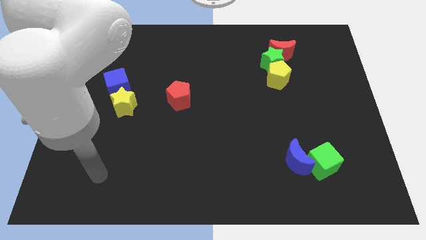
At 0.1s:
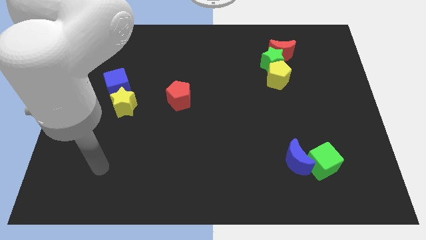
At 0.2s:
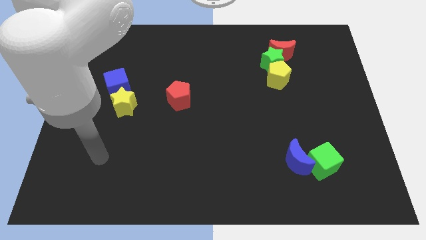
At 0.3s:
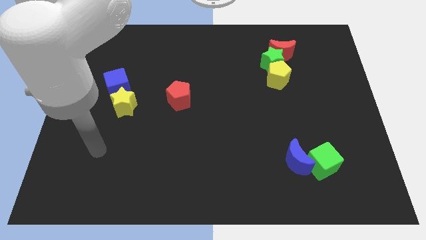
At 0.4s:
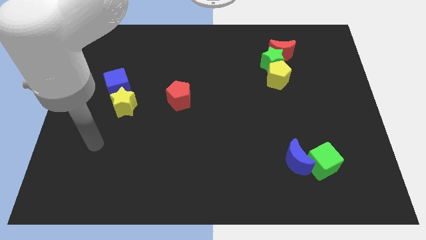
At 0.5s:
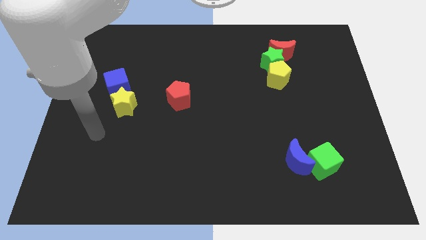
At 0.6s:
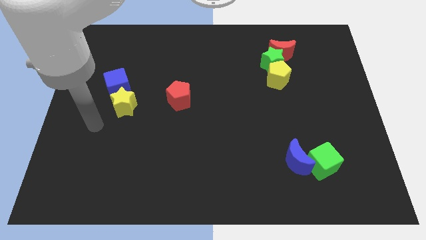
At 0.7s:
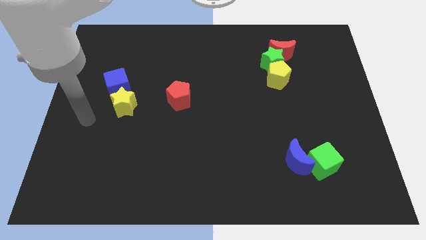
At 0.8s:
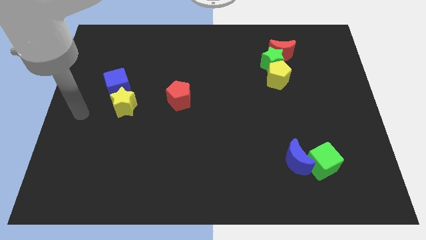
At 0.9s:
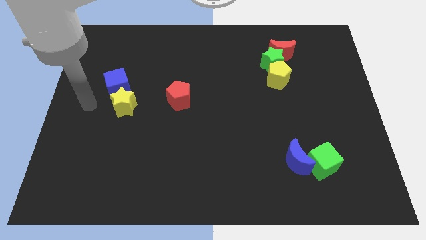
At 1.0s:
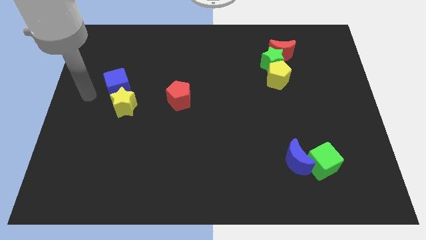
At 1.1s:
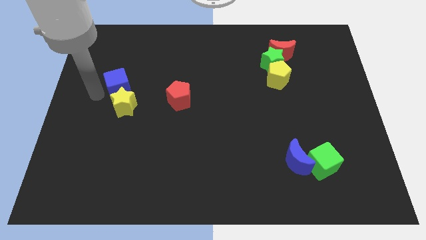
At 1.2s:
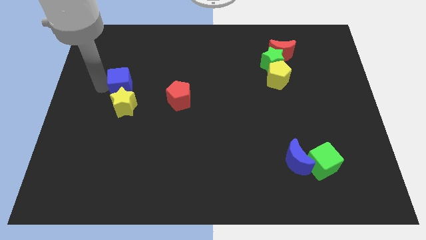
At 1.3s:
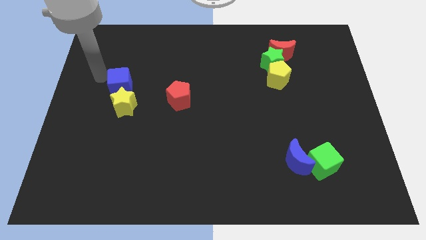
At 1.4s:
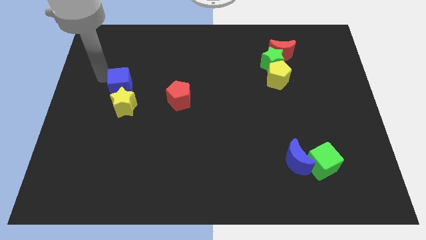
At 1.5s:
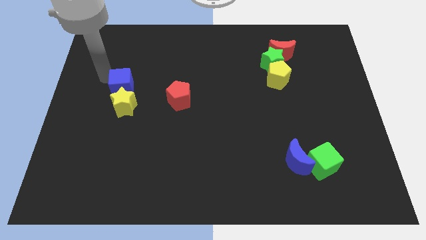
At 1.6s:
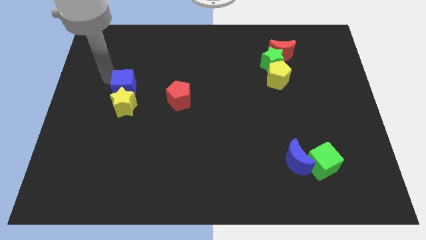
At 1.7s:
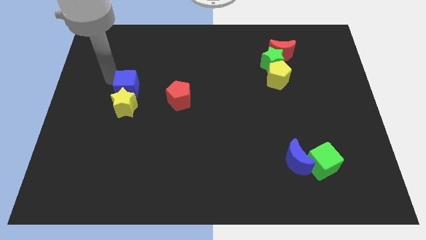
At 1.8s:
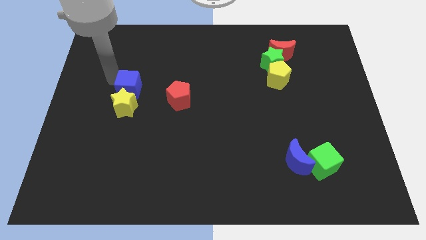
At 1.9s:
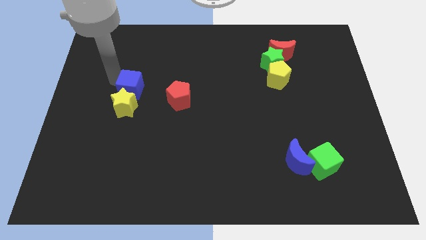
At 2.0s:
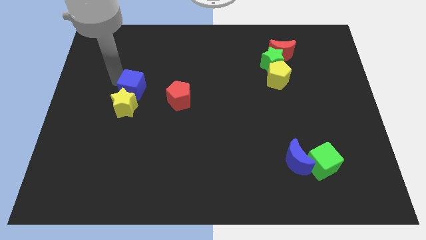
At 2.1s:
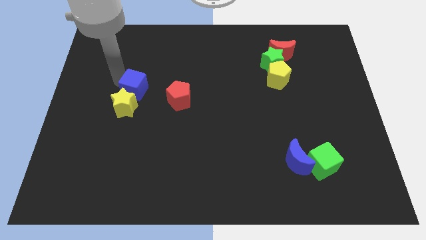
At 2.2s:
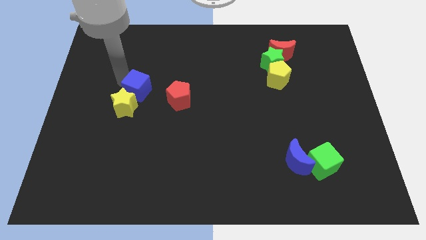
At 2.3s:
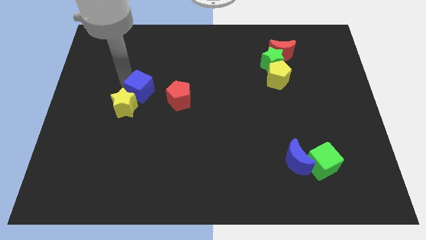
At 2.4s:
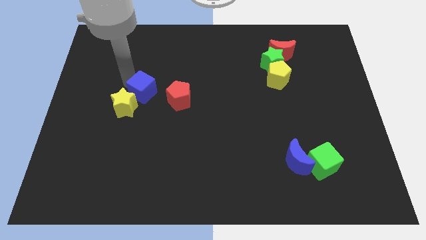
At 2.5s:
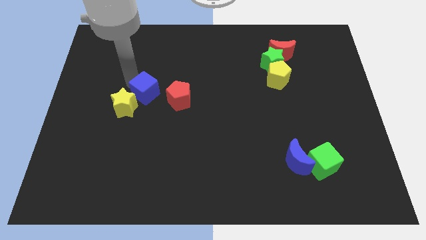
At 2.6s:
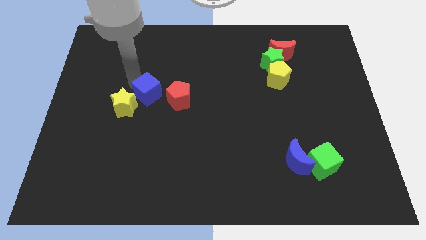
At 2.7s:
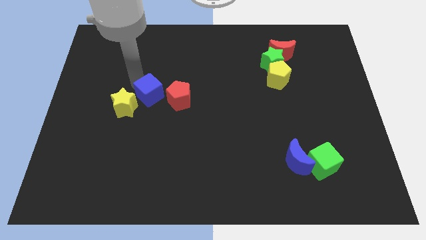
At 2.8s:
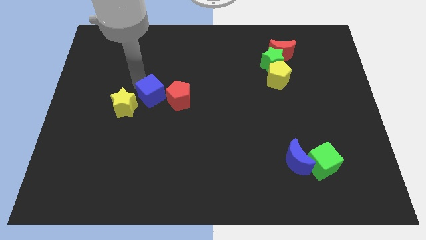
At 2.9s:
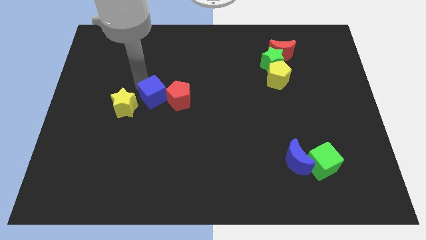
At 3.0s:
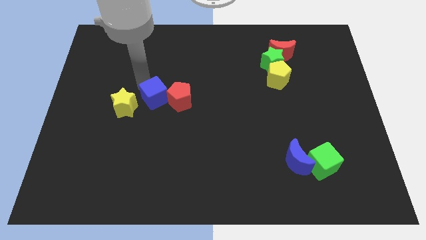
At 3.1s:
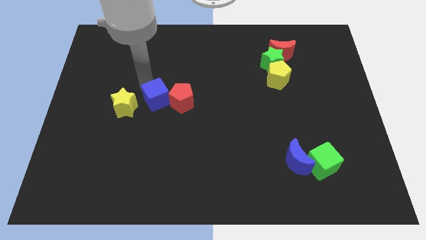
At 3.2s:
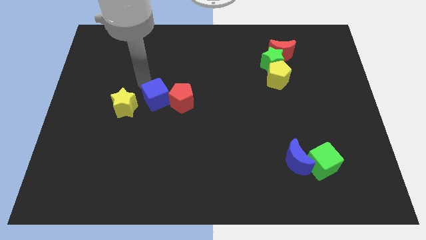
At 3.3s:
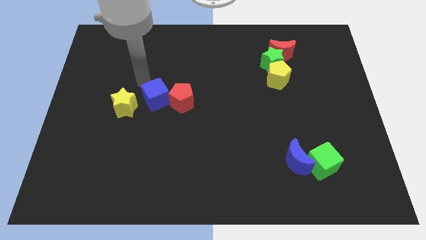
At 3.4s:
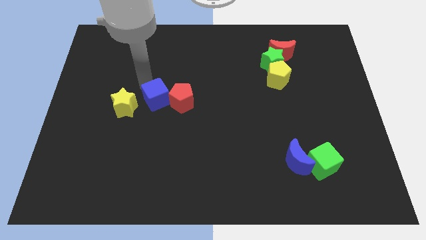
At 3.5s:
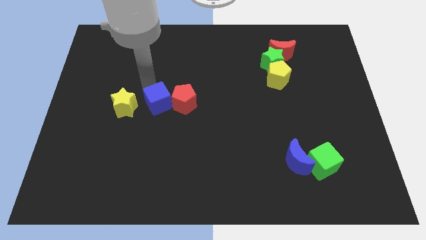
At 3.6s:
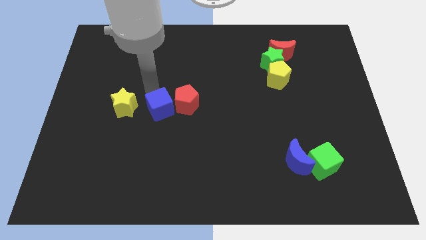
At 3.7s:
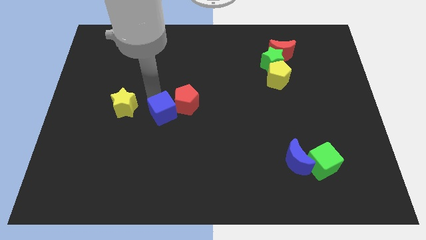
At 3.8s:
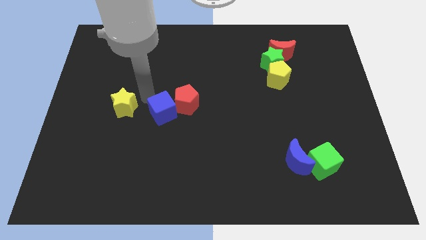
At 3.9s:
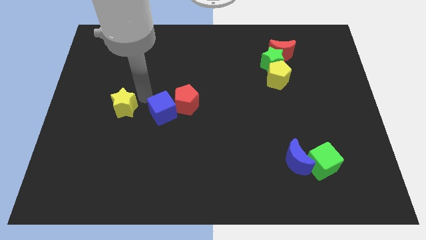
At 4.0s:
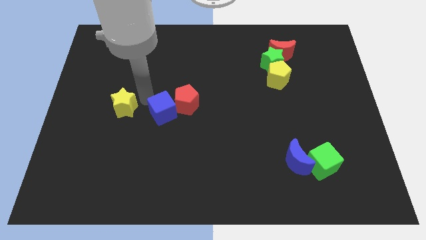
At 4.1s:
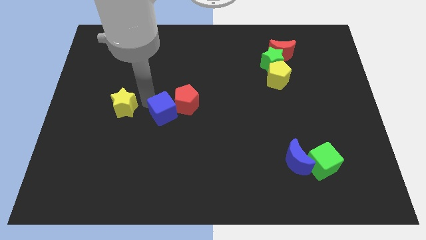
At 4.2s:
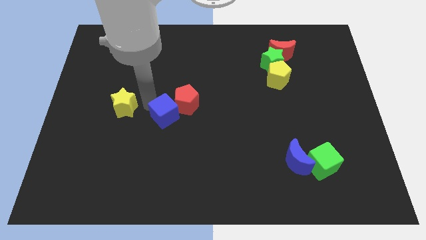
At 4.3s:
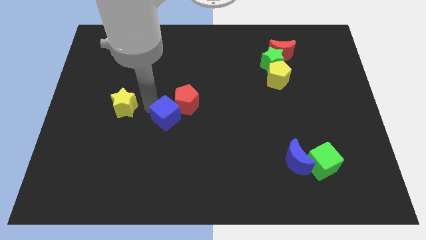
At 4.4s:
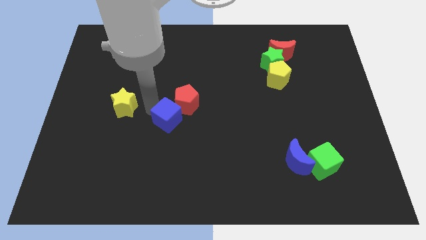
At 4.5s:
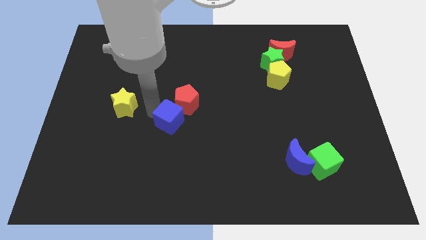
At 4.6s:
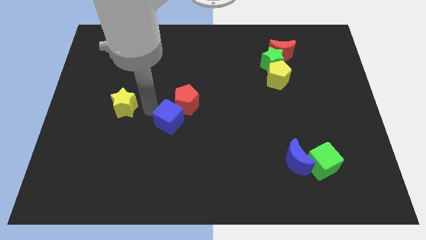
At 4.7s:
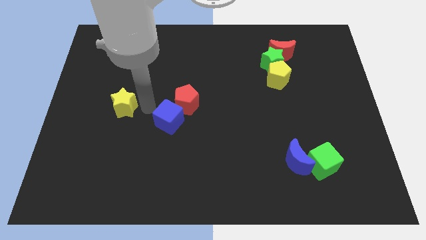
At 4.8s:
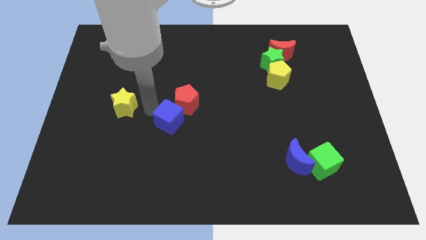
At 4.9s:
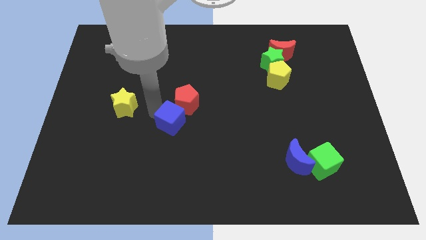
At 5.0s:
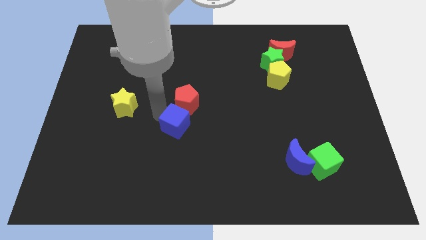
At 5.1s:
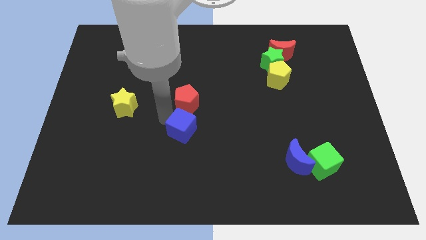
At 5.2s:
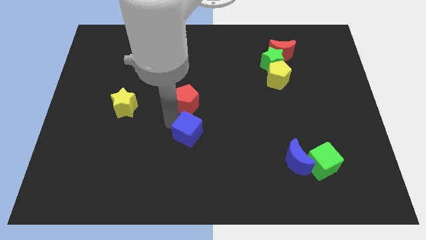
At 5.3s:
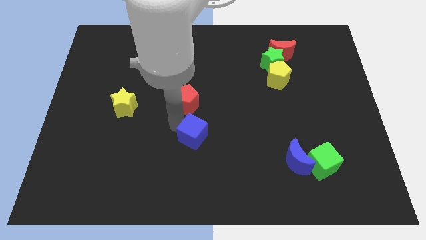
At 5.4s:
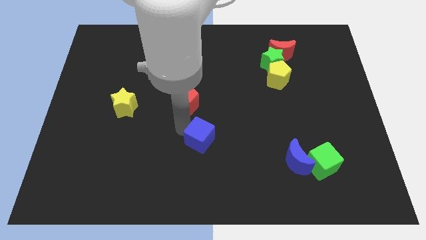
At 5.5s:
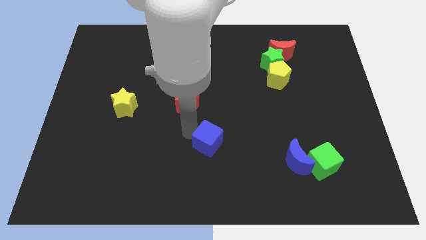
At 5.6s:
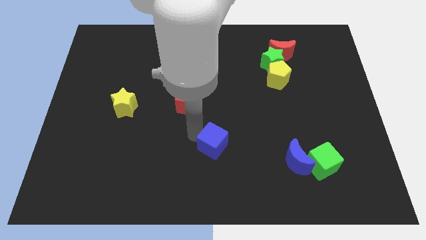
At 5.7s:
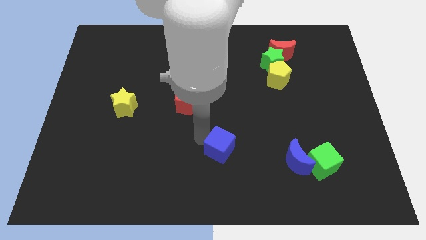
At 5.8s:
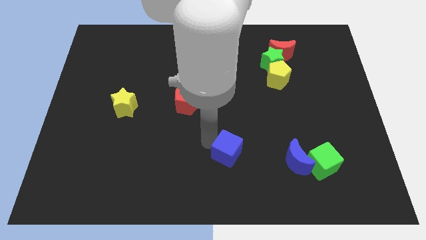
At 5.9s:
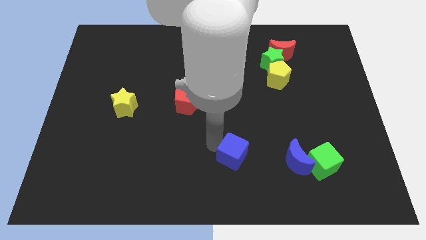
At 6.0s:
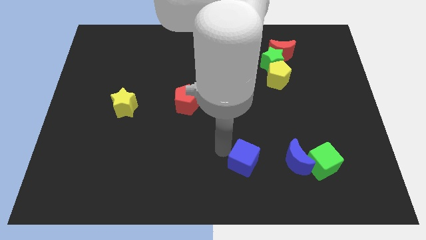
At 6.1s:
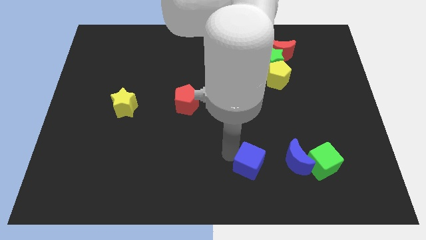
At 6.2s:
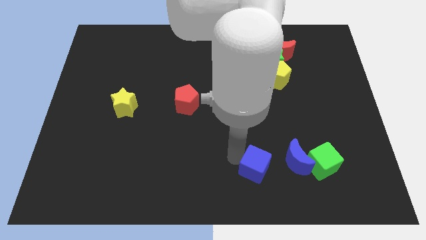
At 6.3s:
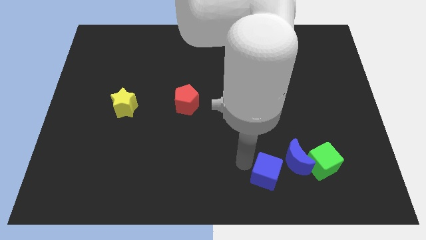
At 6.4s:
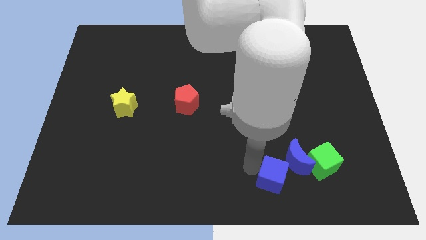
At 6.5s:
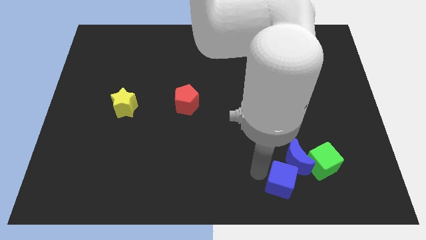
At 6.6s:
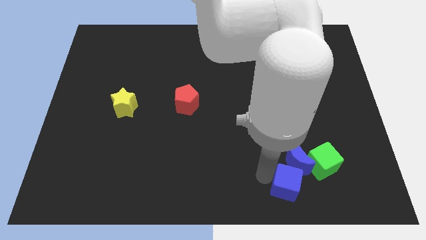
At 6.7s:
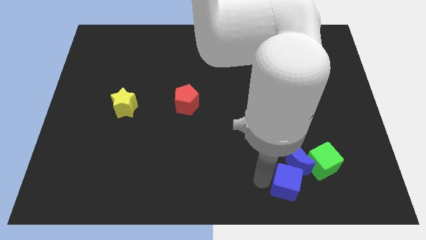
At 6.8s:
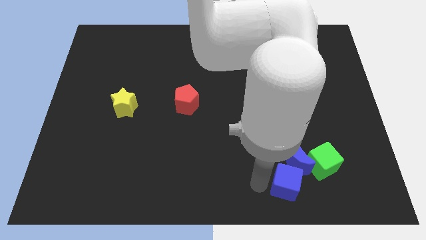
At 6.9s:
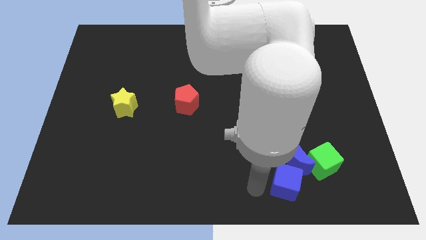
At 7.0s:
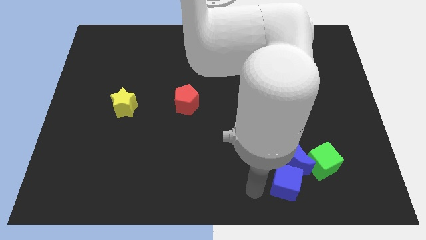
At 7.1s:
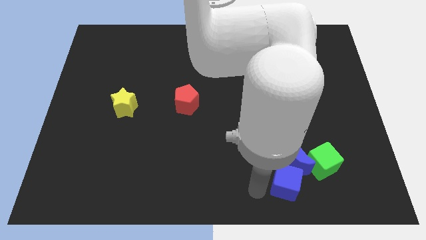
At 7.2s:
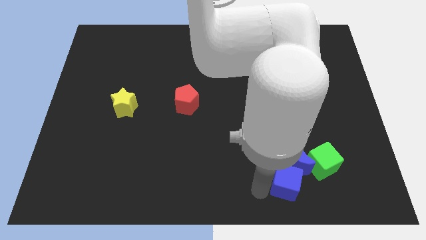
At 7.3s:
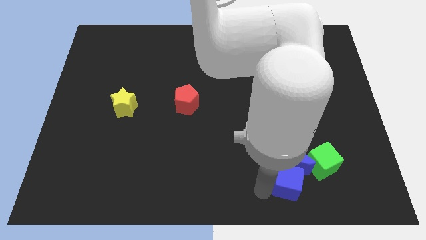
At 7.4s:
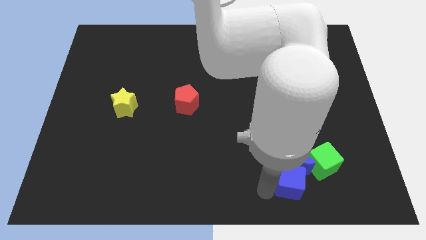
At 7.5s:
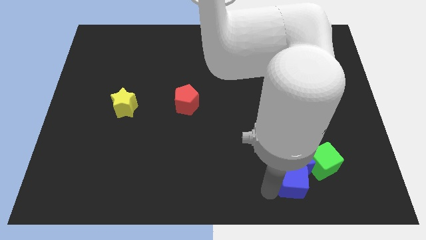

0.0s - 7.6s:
move the blue cube to the bottom right of the blue moon
